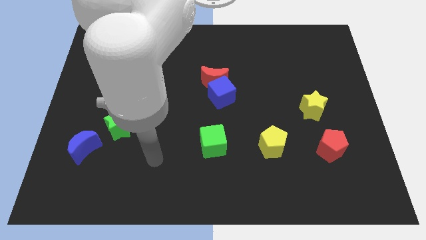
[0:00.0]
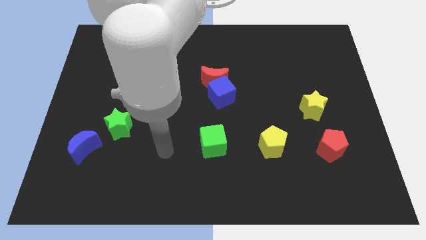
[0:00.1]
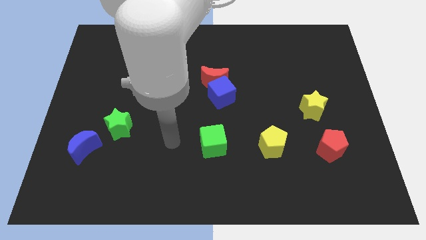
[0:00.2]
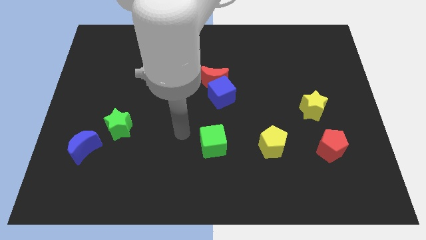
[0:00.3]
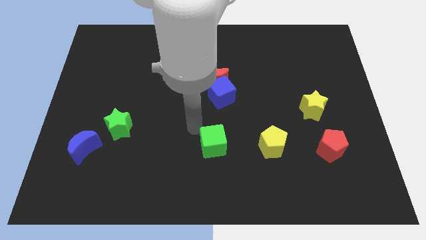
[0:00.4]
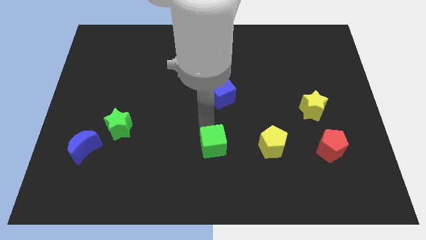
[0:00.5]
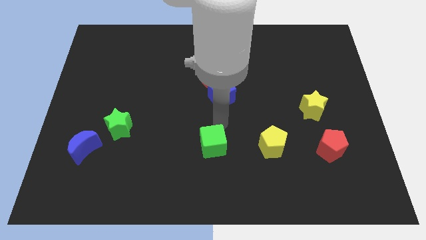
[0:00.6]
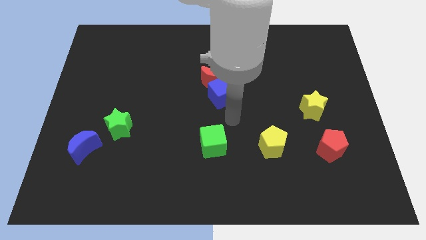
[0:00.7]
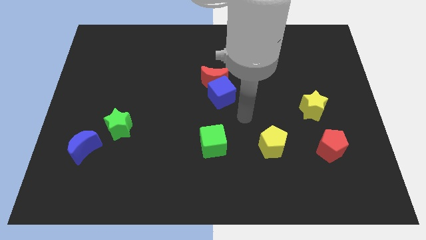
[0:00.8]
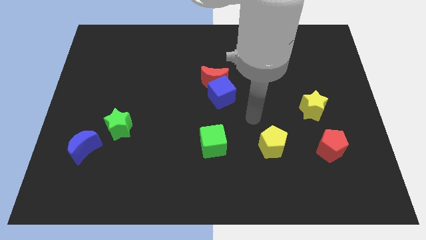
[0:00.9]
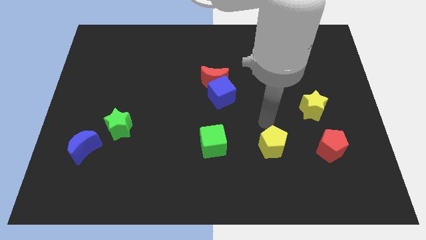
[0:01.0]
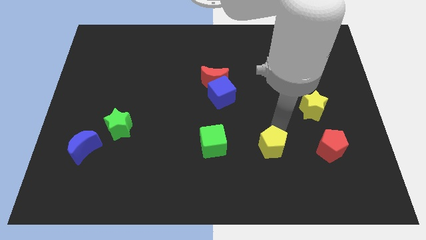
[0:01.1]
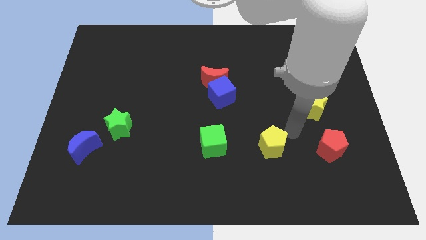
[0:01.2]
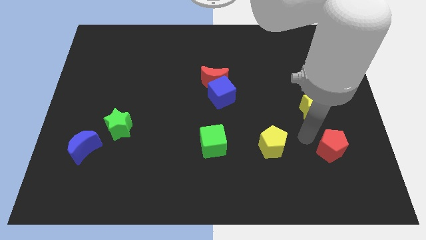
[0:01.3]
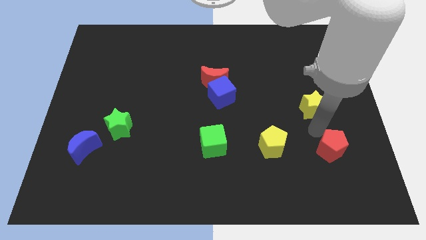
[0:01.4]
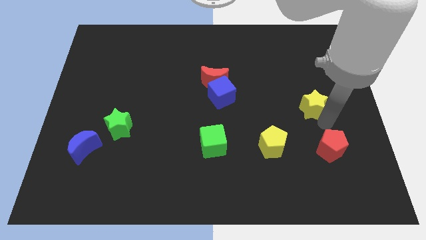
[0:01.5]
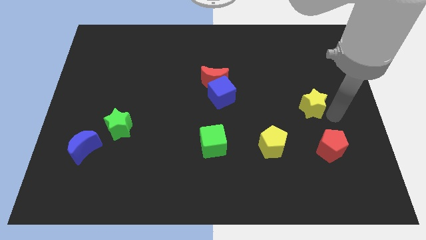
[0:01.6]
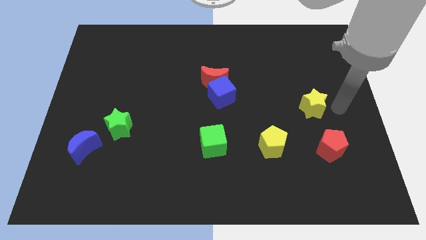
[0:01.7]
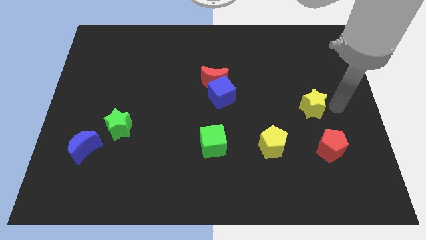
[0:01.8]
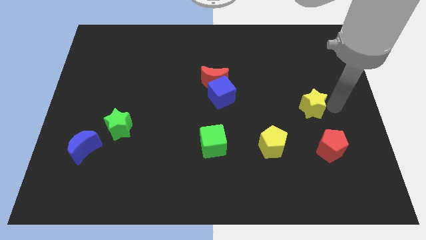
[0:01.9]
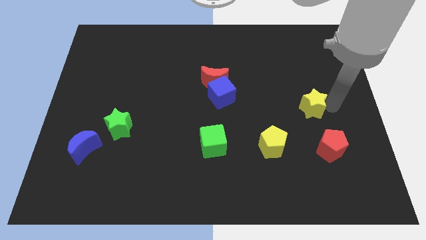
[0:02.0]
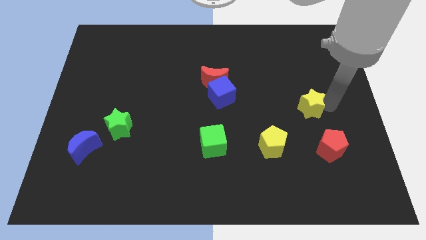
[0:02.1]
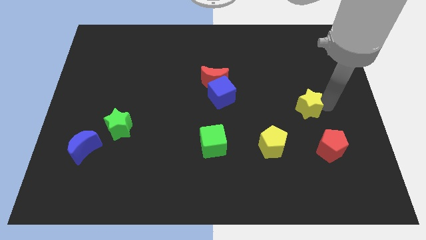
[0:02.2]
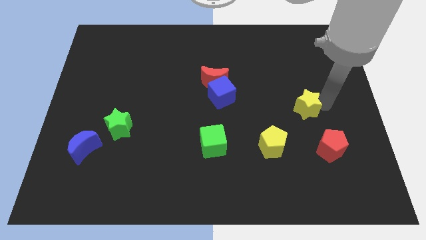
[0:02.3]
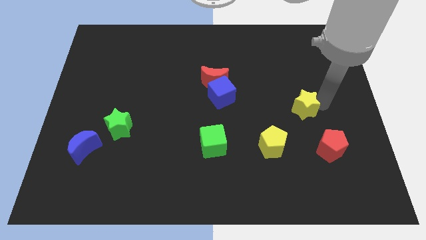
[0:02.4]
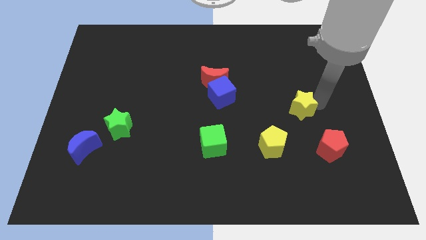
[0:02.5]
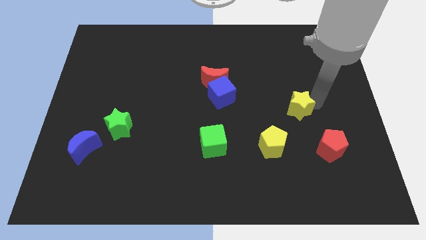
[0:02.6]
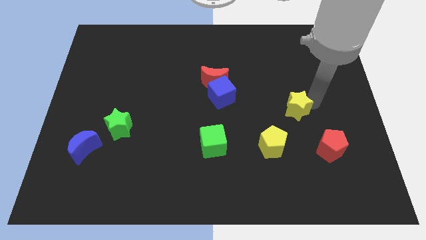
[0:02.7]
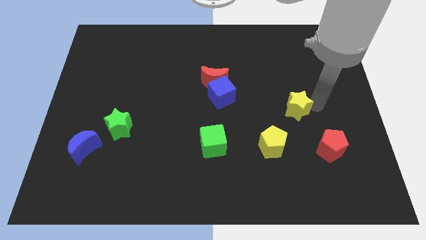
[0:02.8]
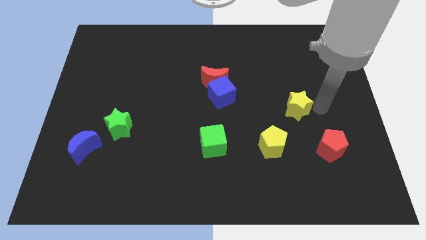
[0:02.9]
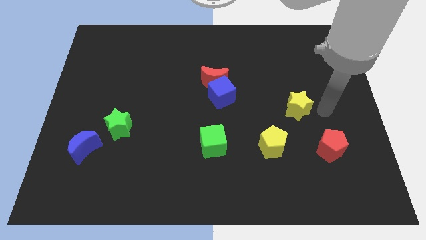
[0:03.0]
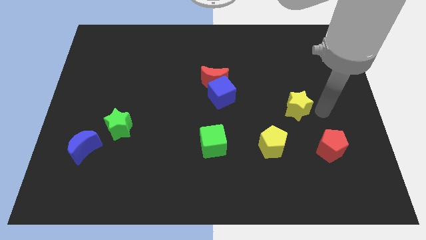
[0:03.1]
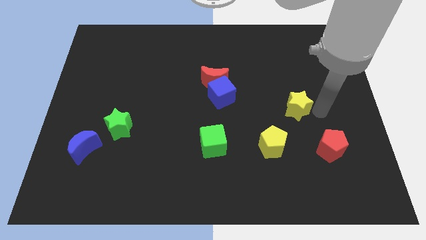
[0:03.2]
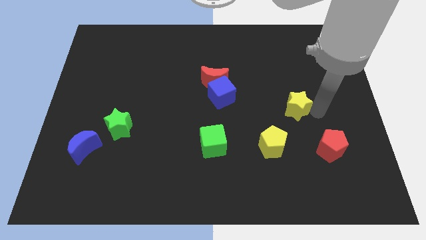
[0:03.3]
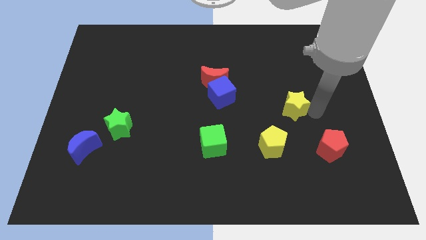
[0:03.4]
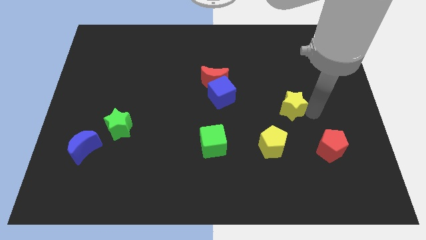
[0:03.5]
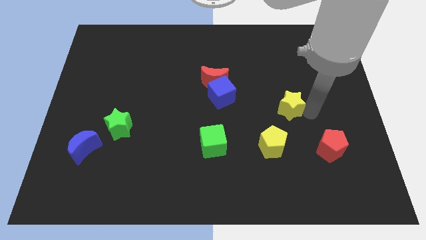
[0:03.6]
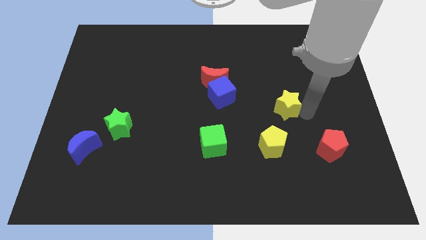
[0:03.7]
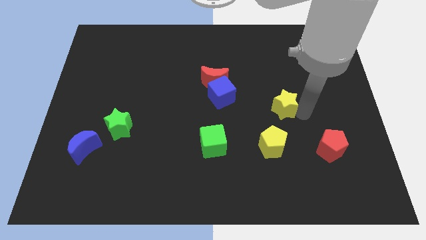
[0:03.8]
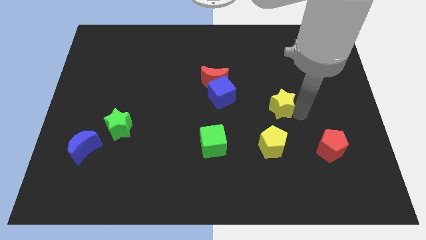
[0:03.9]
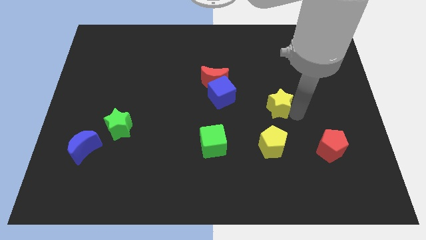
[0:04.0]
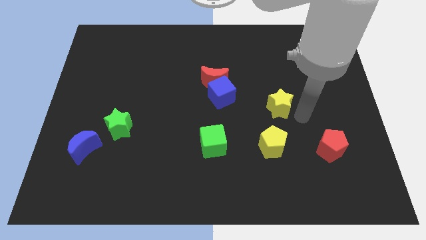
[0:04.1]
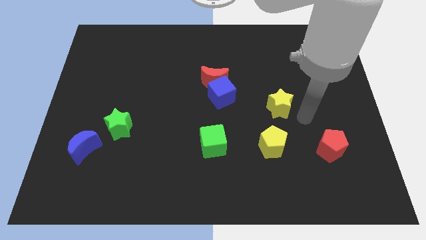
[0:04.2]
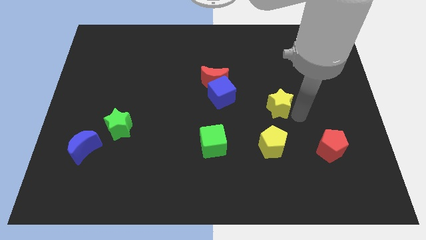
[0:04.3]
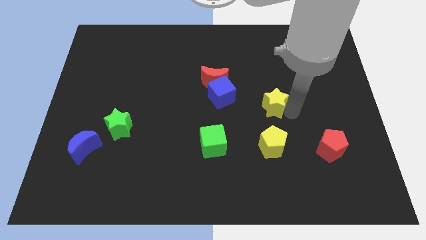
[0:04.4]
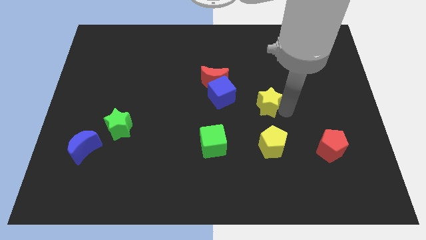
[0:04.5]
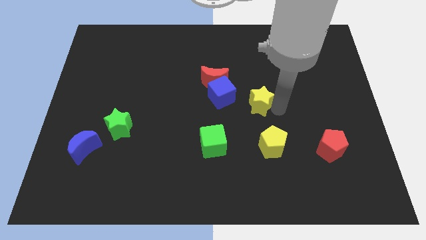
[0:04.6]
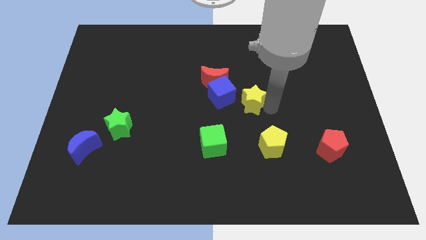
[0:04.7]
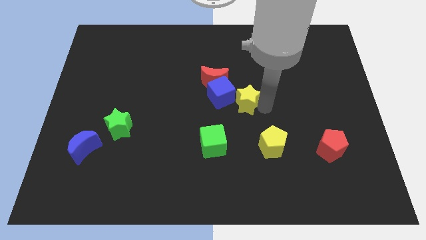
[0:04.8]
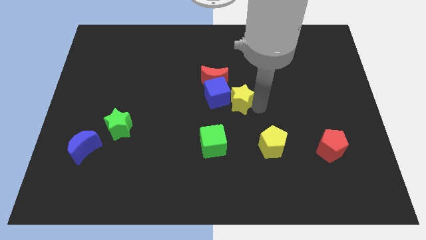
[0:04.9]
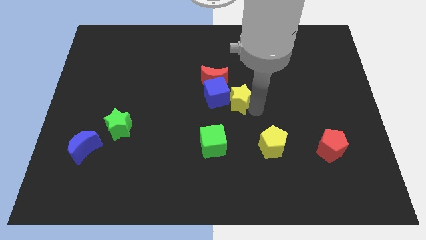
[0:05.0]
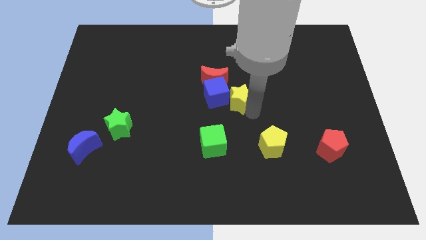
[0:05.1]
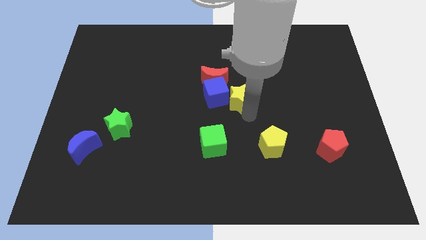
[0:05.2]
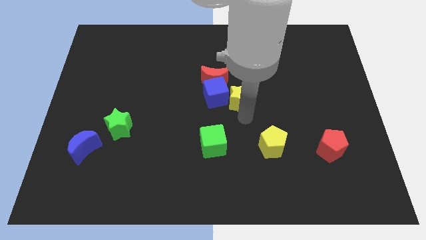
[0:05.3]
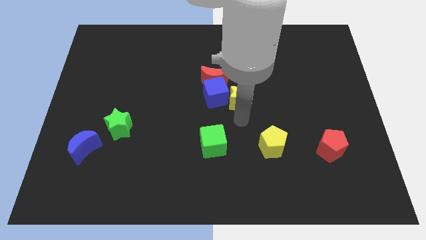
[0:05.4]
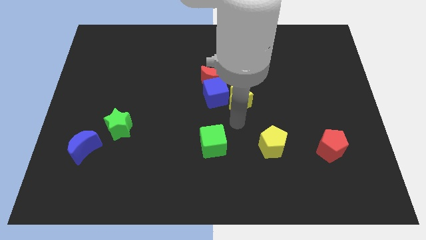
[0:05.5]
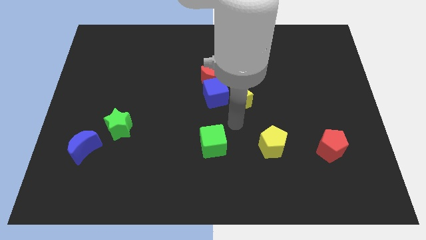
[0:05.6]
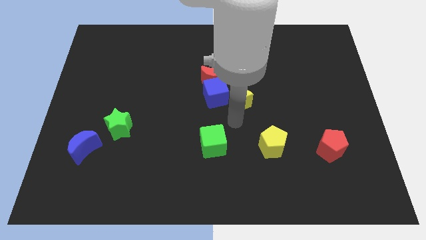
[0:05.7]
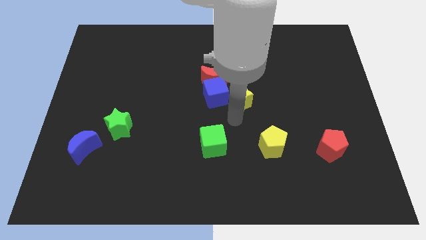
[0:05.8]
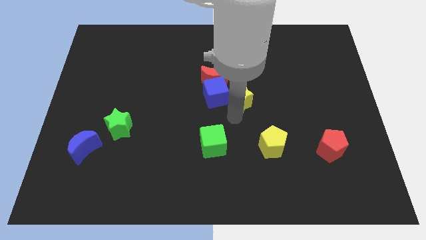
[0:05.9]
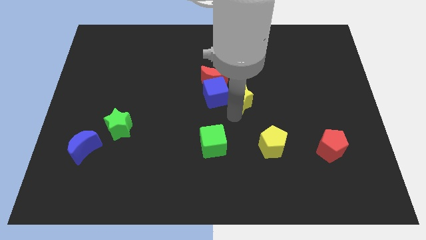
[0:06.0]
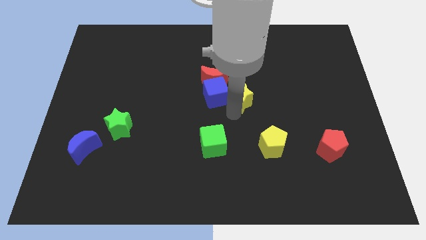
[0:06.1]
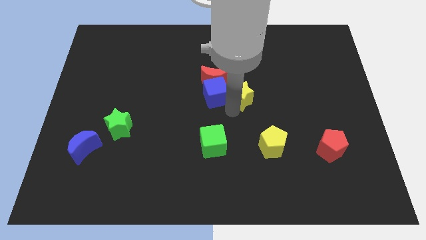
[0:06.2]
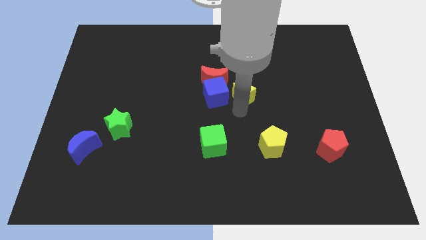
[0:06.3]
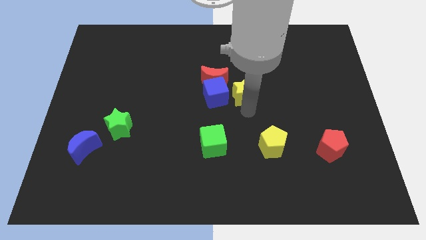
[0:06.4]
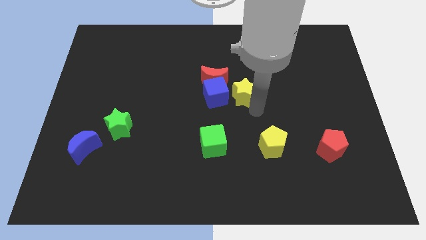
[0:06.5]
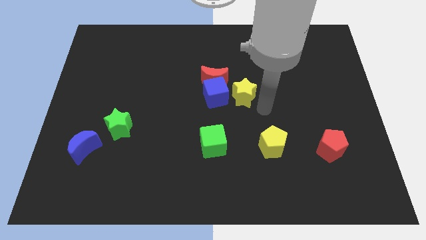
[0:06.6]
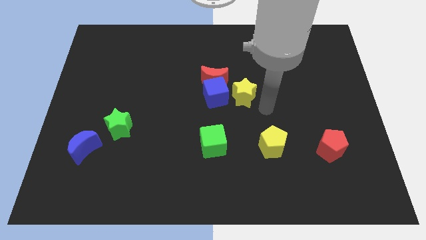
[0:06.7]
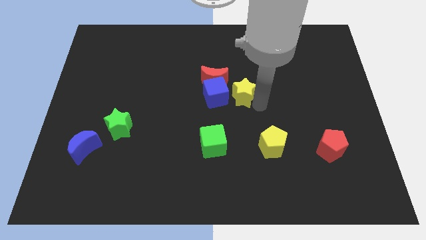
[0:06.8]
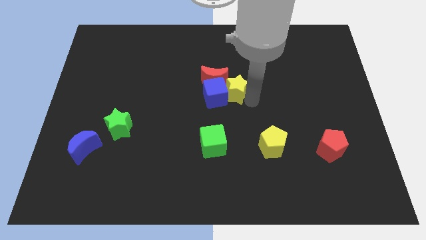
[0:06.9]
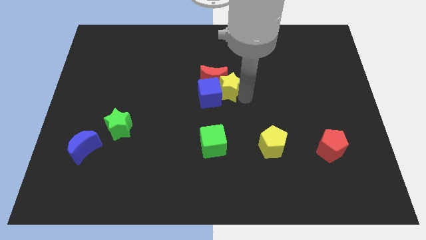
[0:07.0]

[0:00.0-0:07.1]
put the yellow star to the red moon

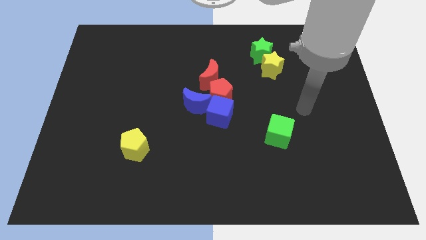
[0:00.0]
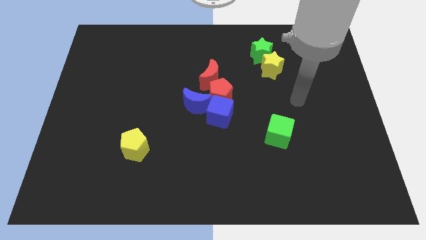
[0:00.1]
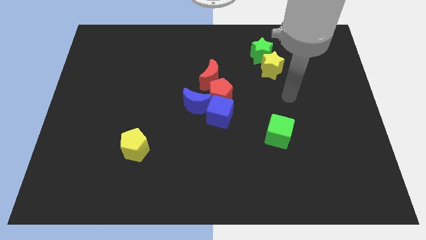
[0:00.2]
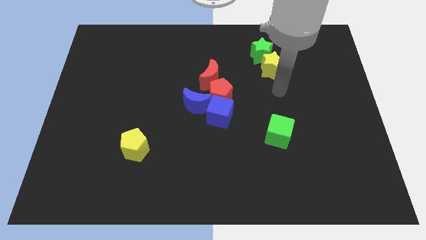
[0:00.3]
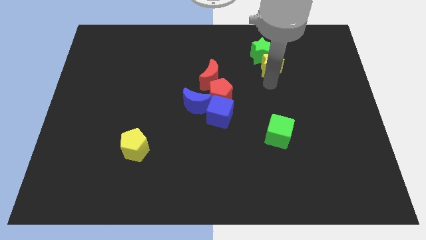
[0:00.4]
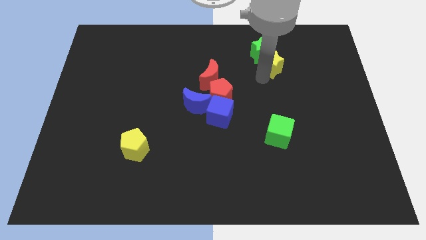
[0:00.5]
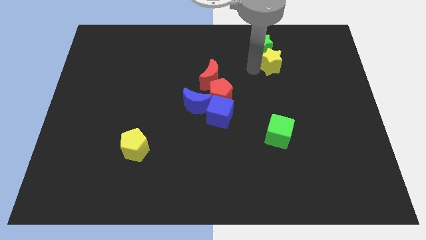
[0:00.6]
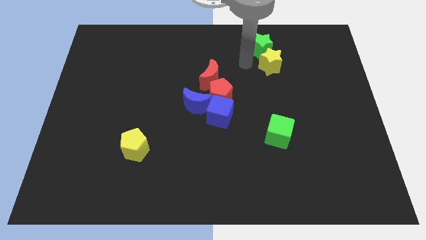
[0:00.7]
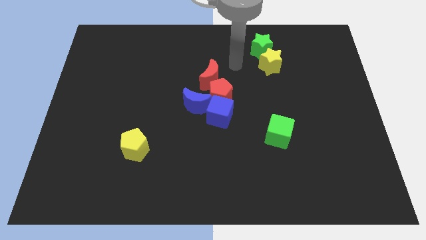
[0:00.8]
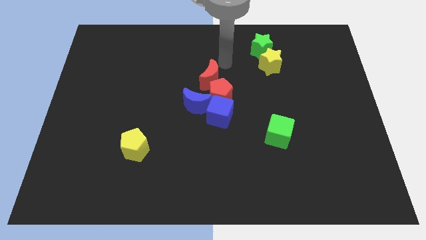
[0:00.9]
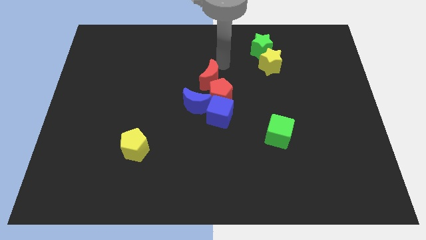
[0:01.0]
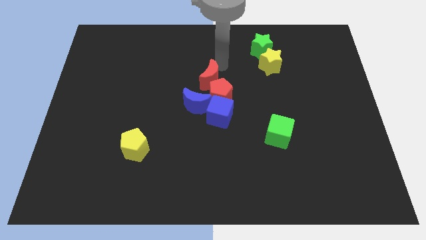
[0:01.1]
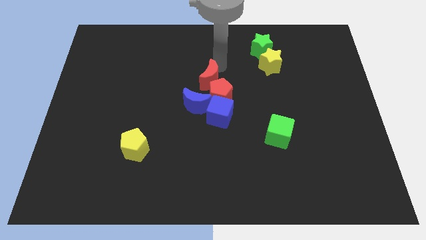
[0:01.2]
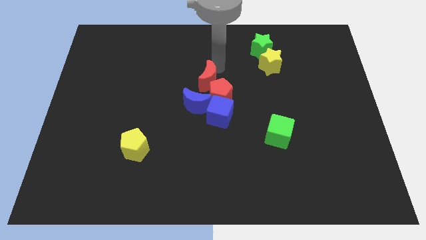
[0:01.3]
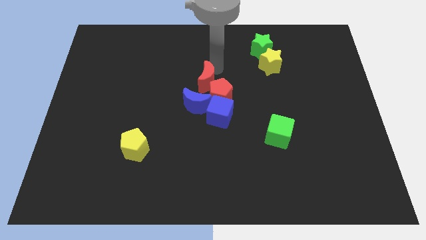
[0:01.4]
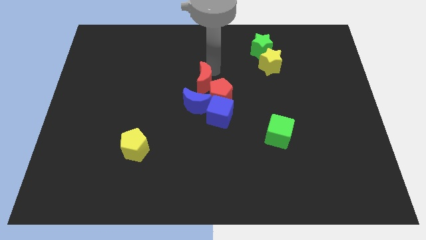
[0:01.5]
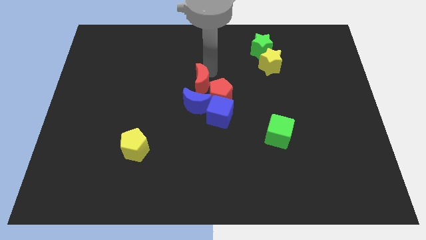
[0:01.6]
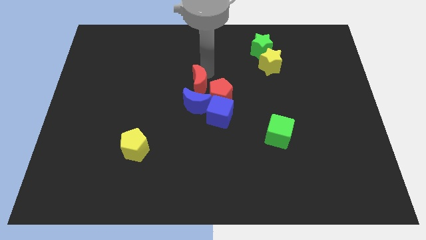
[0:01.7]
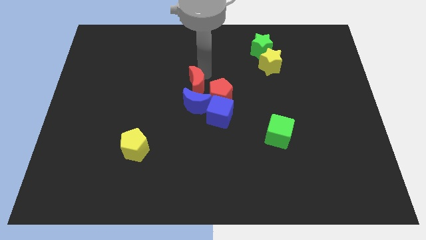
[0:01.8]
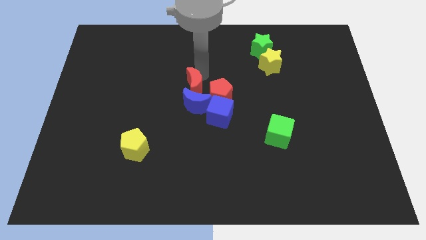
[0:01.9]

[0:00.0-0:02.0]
slide the red moon next to the blue moon
